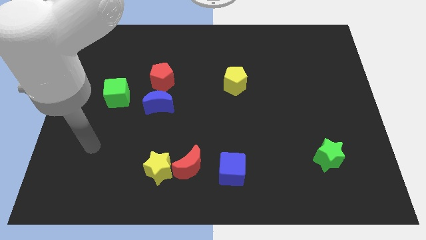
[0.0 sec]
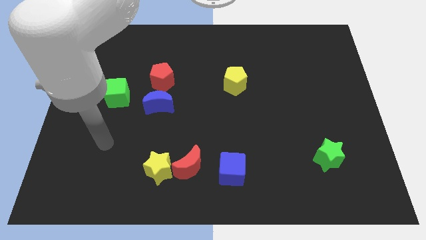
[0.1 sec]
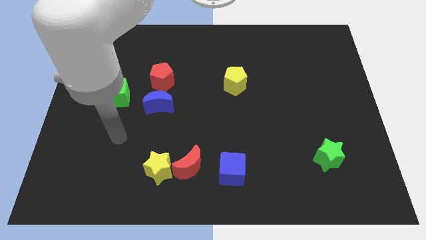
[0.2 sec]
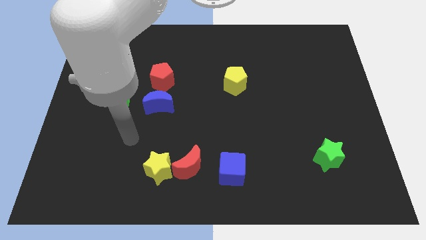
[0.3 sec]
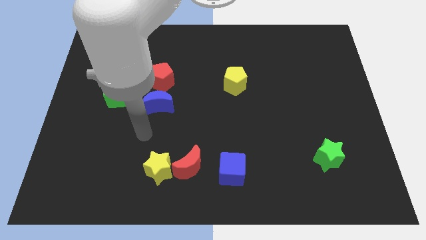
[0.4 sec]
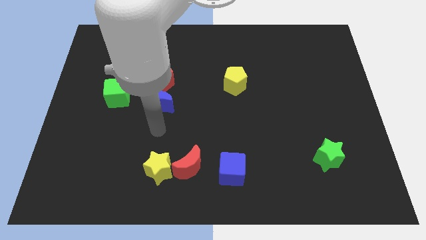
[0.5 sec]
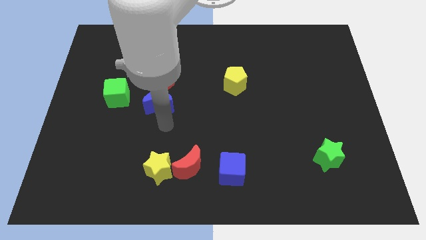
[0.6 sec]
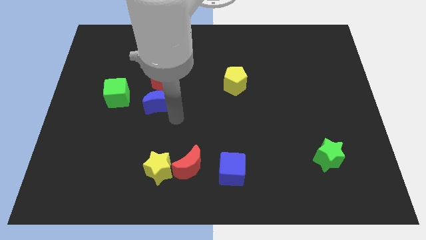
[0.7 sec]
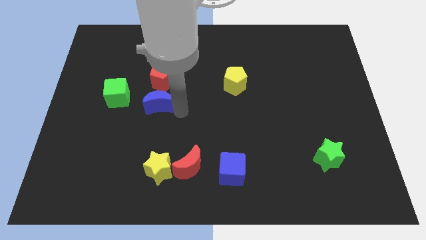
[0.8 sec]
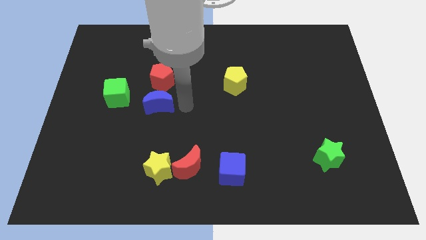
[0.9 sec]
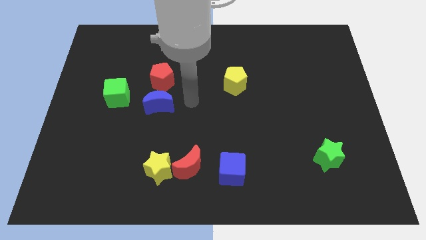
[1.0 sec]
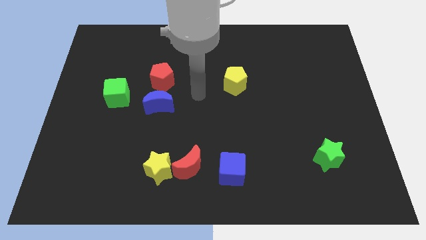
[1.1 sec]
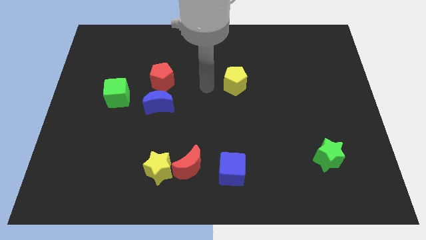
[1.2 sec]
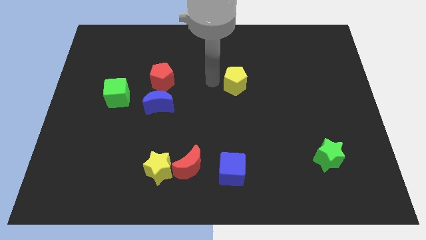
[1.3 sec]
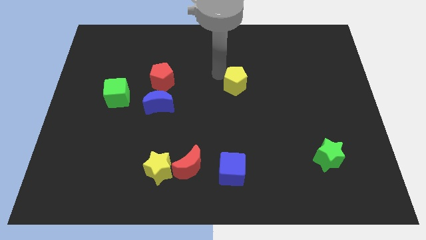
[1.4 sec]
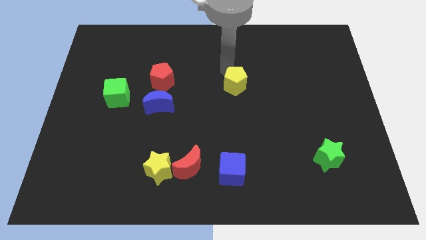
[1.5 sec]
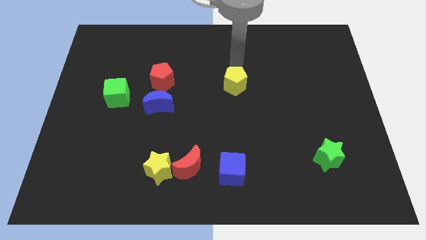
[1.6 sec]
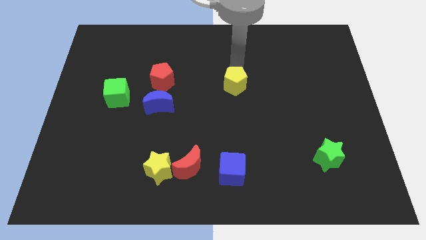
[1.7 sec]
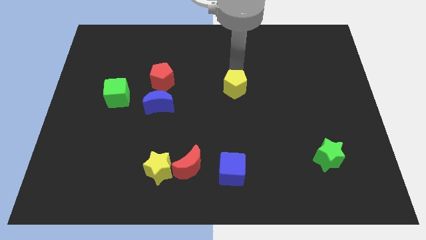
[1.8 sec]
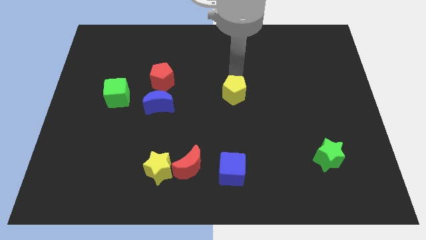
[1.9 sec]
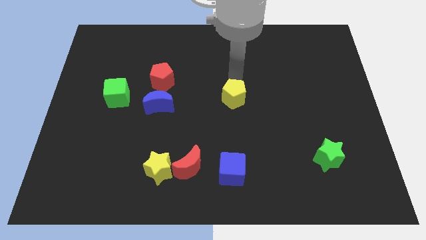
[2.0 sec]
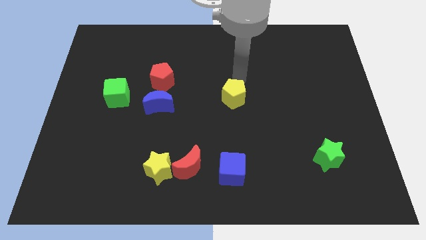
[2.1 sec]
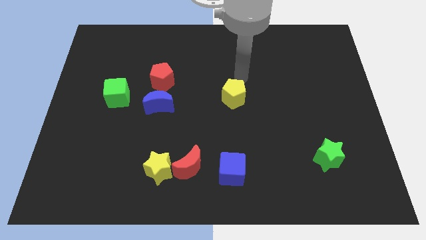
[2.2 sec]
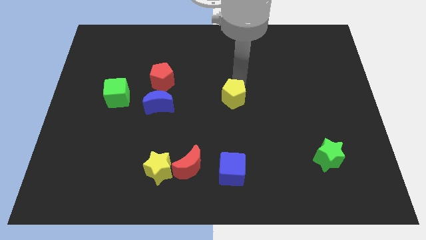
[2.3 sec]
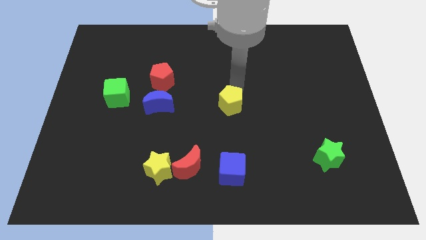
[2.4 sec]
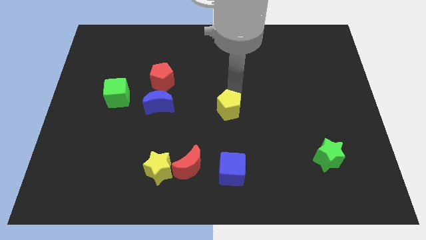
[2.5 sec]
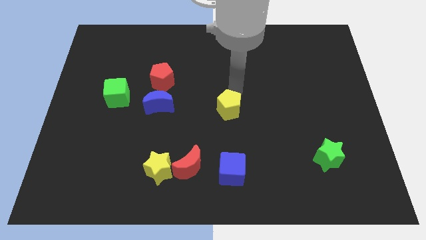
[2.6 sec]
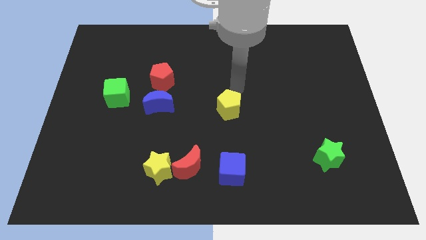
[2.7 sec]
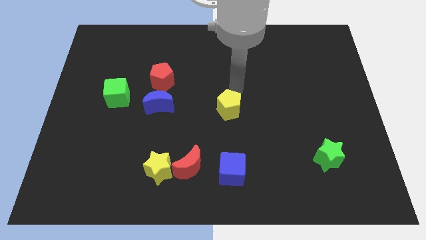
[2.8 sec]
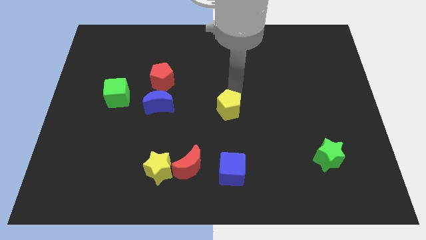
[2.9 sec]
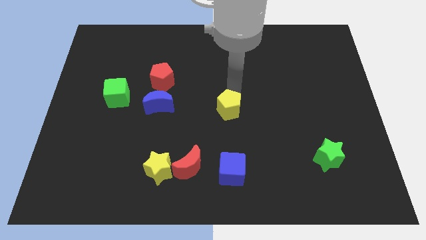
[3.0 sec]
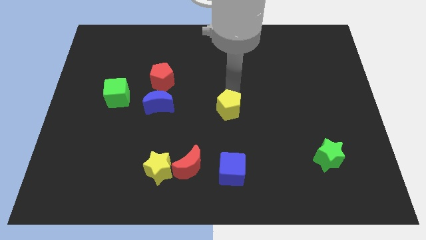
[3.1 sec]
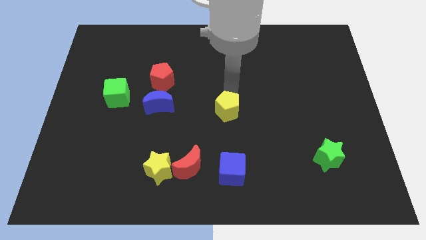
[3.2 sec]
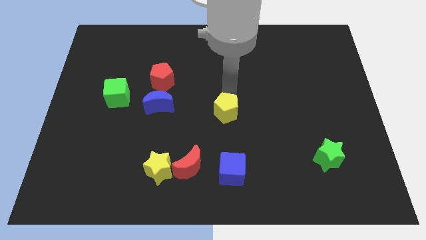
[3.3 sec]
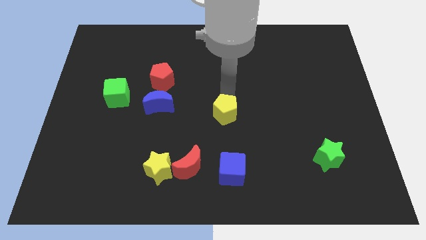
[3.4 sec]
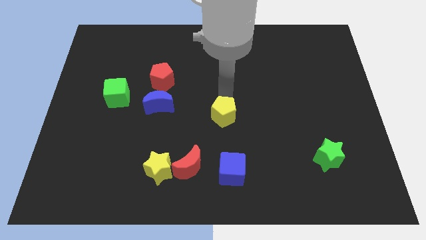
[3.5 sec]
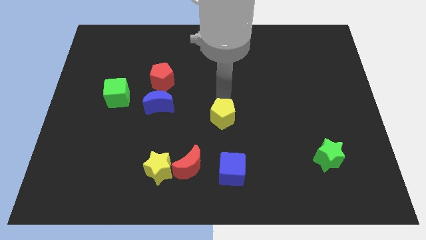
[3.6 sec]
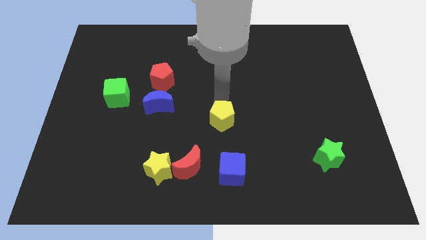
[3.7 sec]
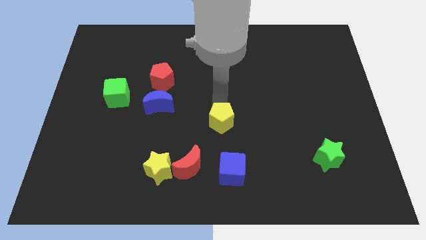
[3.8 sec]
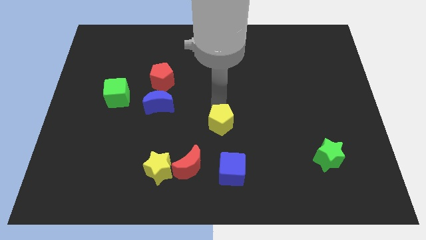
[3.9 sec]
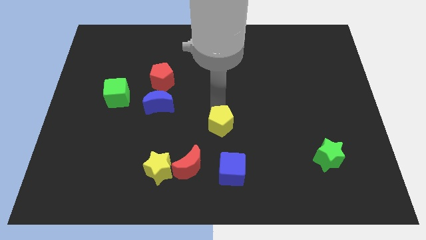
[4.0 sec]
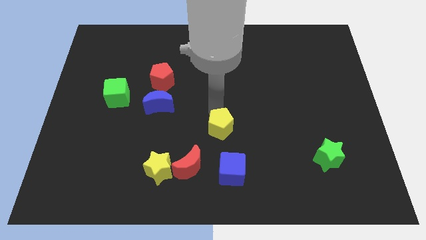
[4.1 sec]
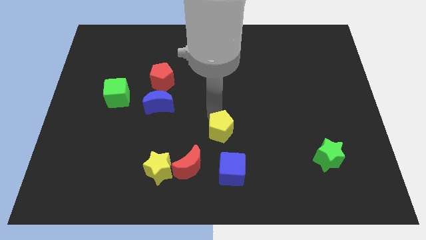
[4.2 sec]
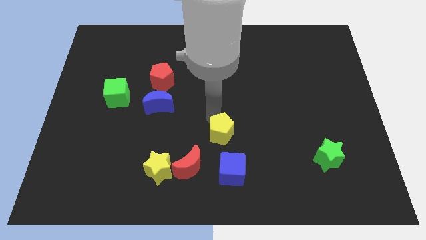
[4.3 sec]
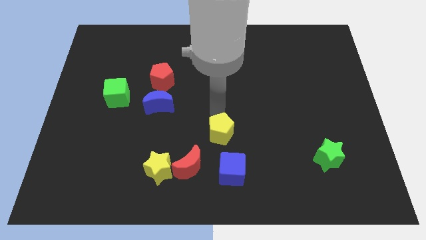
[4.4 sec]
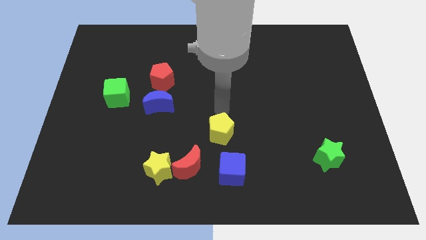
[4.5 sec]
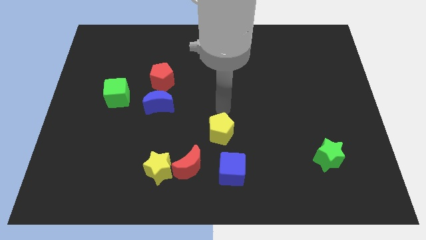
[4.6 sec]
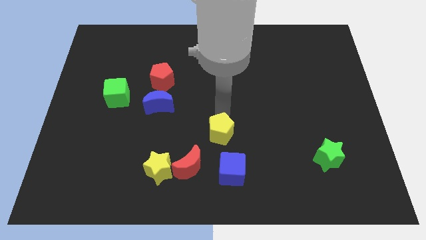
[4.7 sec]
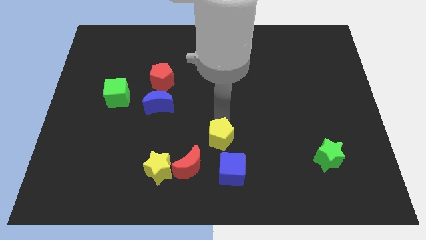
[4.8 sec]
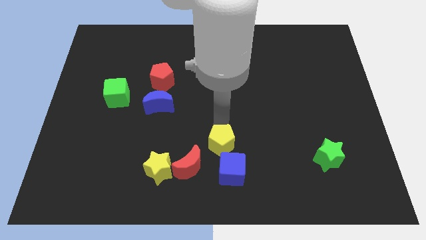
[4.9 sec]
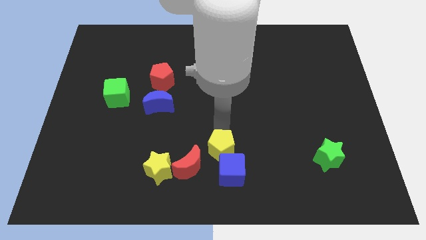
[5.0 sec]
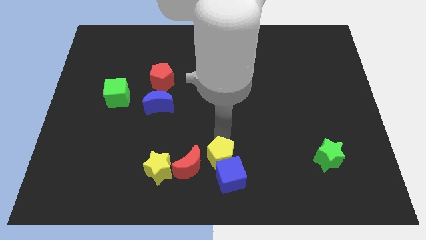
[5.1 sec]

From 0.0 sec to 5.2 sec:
move the yellow pentagon to the bottom side

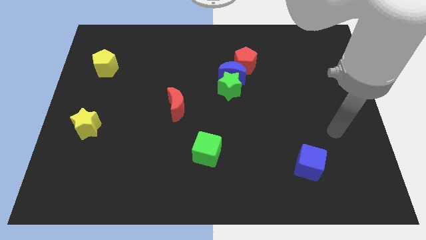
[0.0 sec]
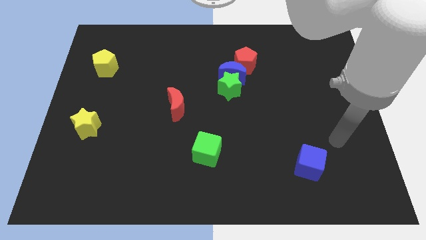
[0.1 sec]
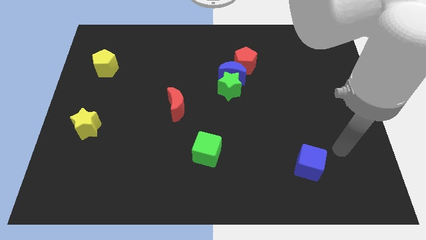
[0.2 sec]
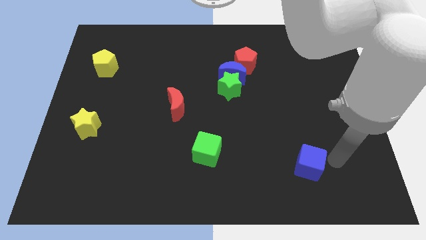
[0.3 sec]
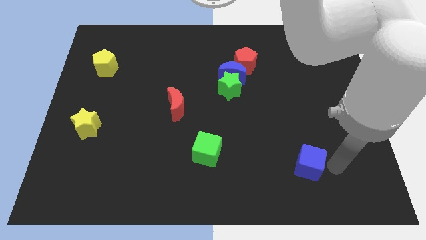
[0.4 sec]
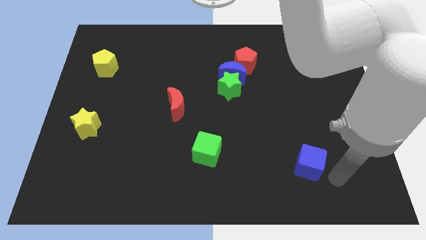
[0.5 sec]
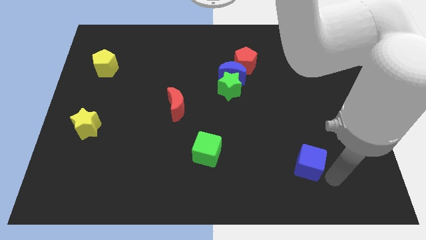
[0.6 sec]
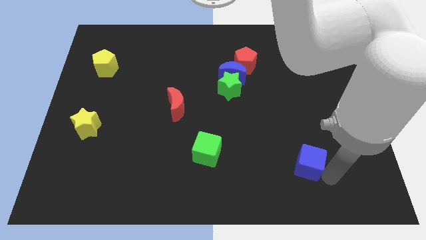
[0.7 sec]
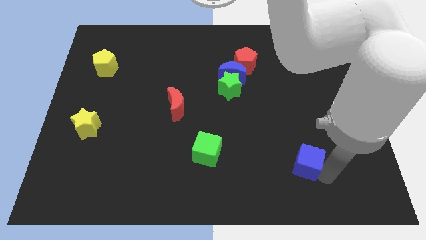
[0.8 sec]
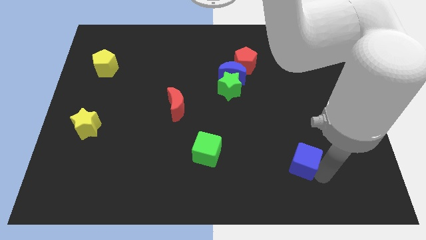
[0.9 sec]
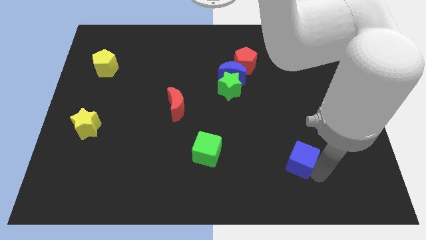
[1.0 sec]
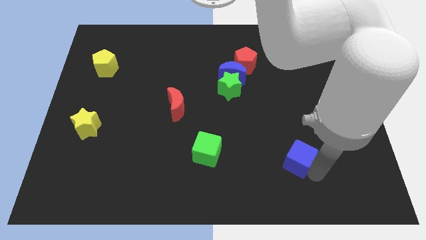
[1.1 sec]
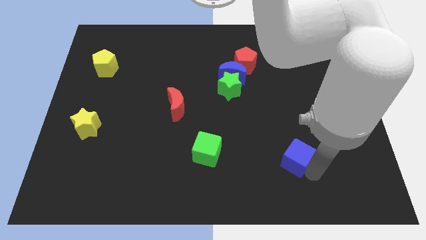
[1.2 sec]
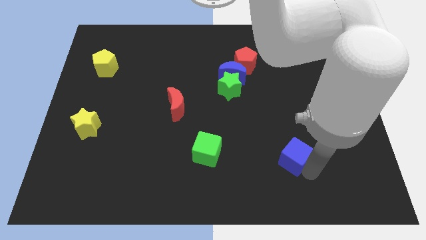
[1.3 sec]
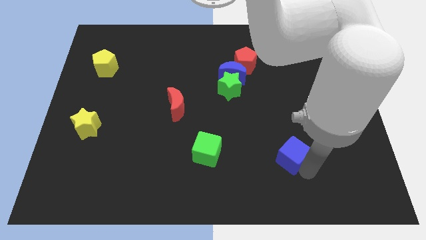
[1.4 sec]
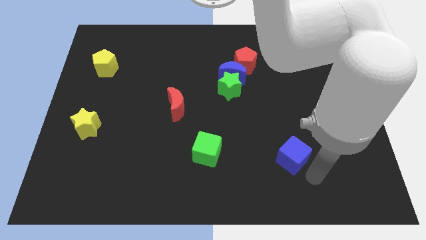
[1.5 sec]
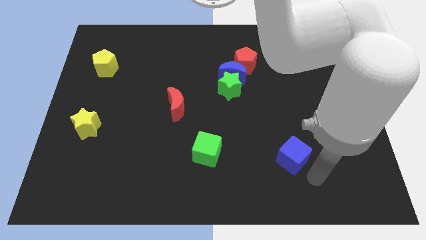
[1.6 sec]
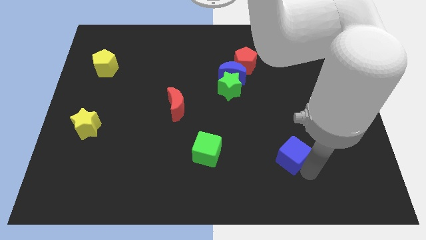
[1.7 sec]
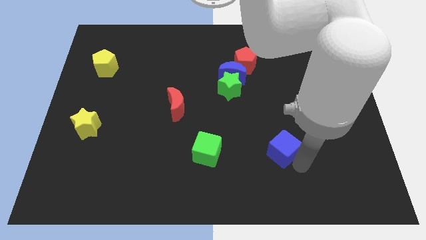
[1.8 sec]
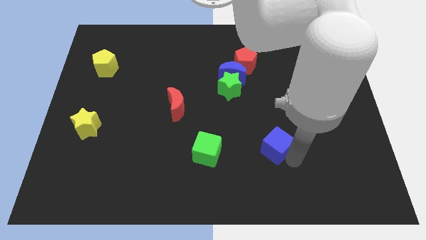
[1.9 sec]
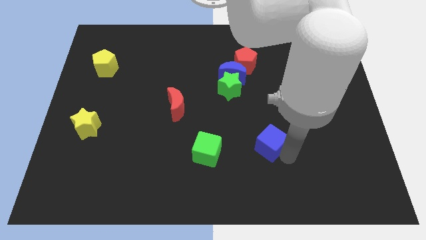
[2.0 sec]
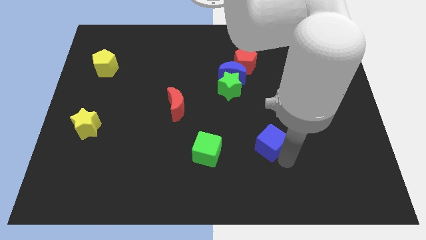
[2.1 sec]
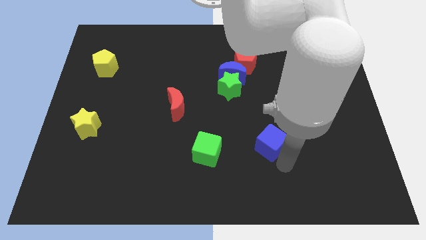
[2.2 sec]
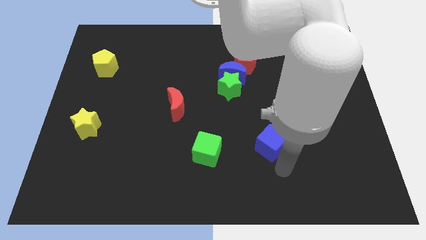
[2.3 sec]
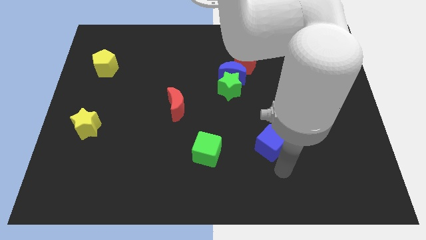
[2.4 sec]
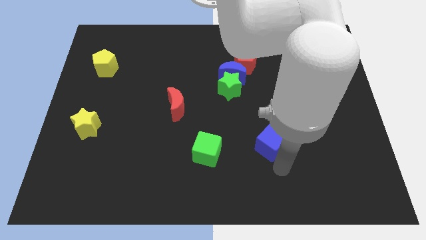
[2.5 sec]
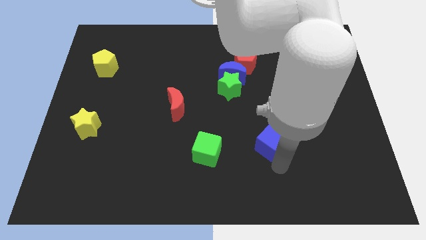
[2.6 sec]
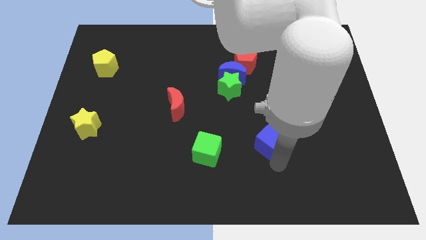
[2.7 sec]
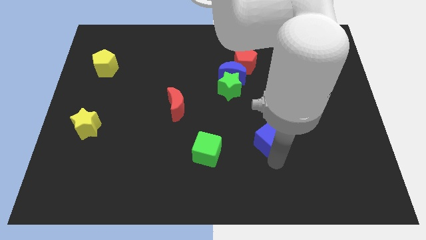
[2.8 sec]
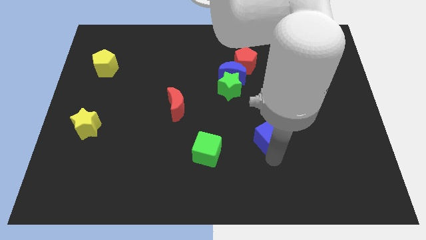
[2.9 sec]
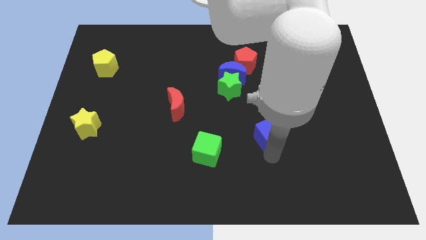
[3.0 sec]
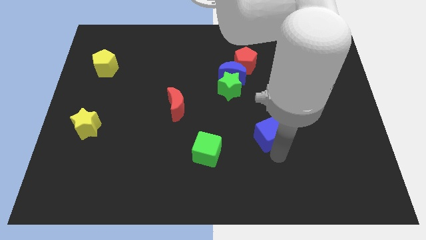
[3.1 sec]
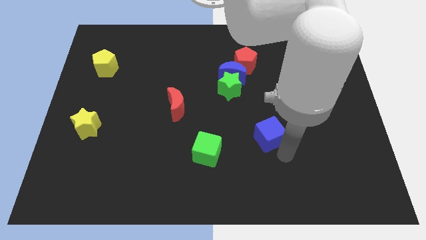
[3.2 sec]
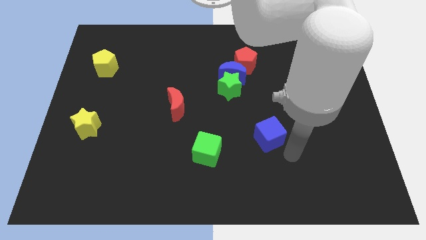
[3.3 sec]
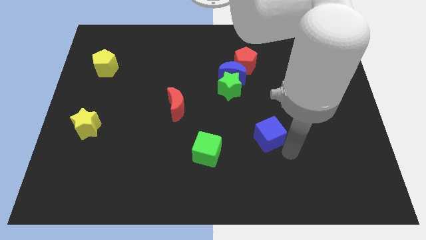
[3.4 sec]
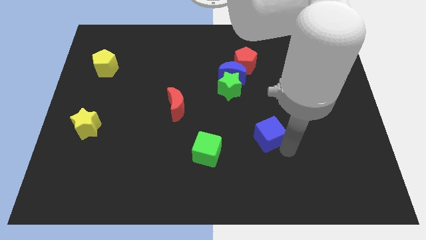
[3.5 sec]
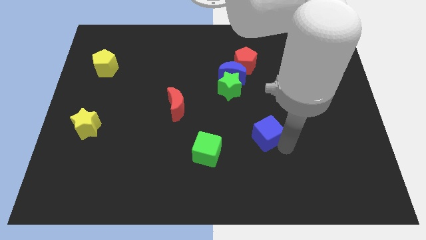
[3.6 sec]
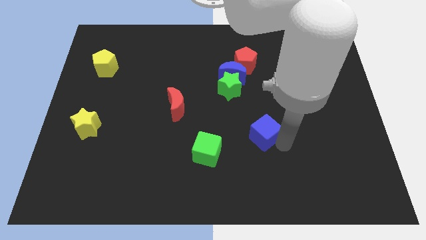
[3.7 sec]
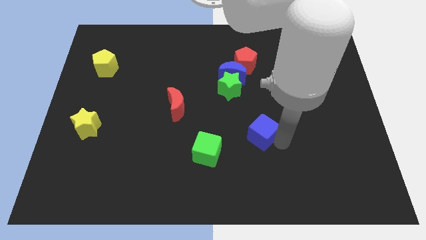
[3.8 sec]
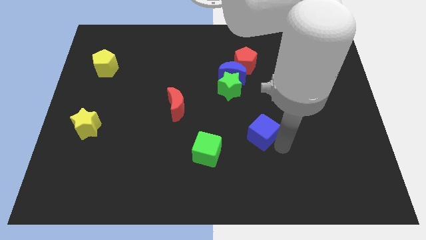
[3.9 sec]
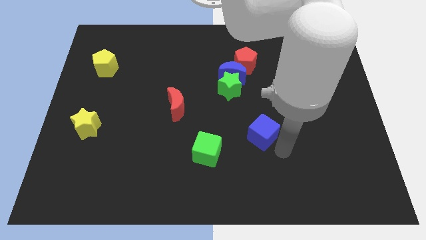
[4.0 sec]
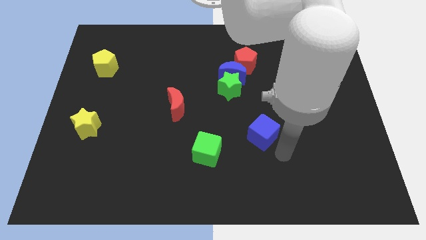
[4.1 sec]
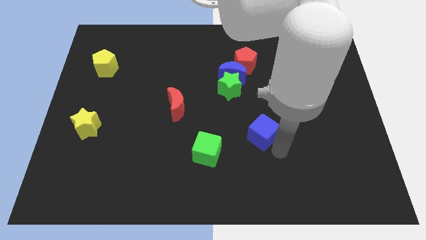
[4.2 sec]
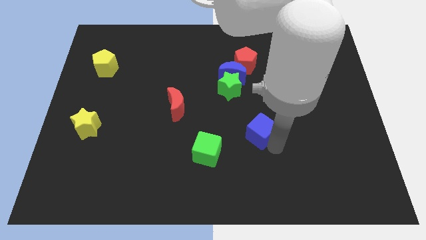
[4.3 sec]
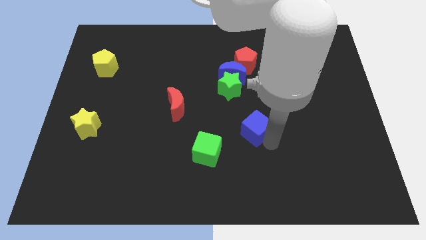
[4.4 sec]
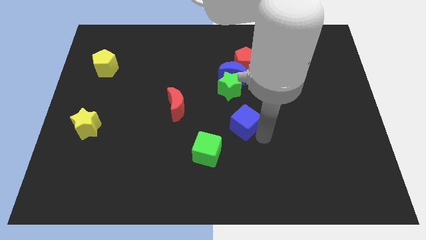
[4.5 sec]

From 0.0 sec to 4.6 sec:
push the blue cube to the center of the board
